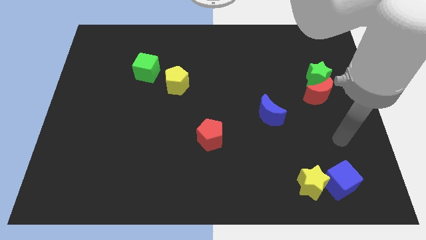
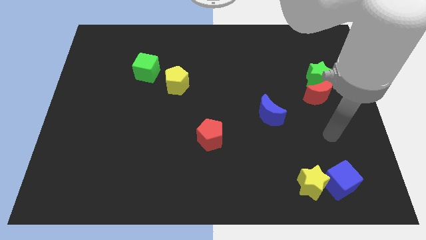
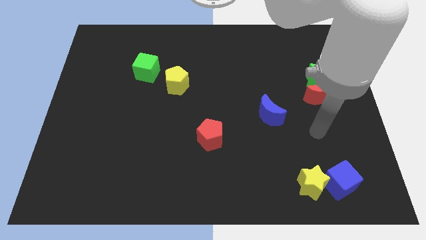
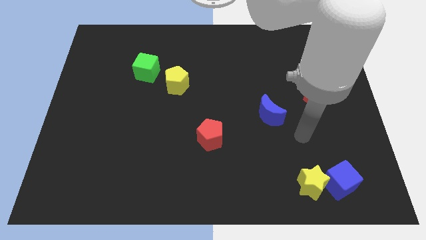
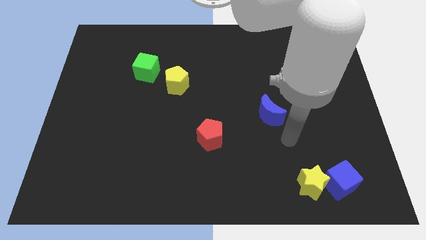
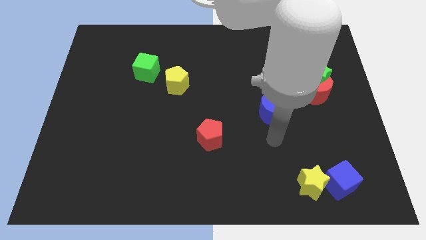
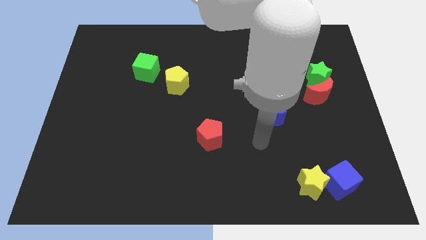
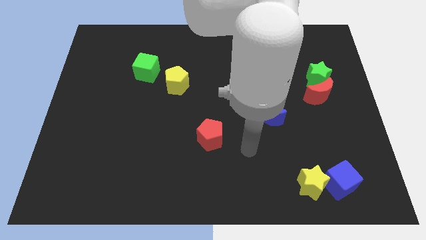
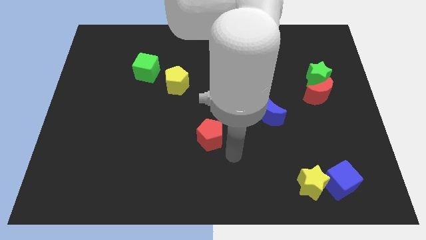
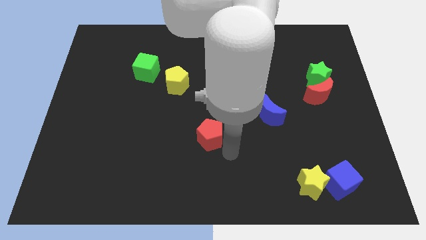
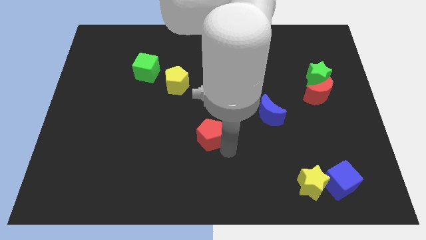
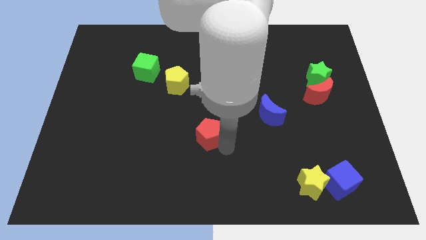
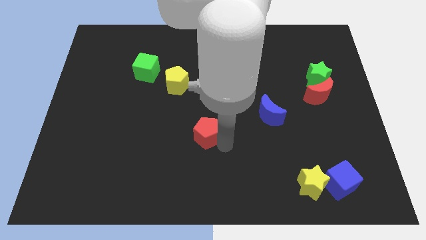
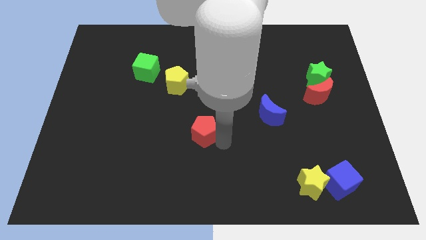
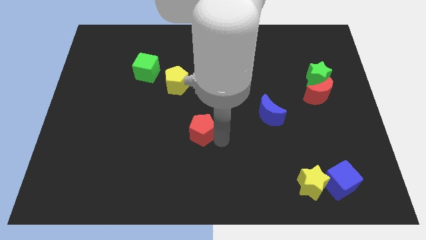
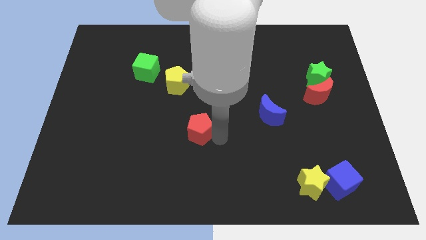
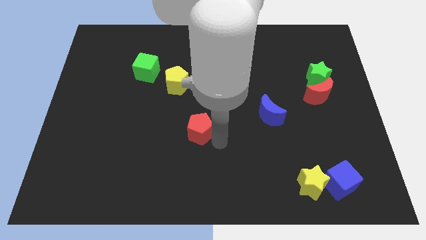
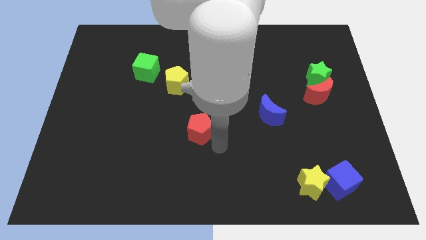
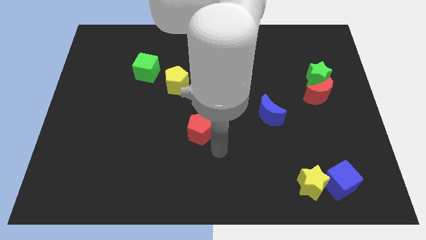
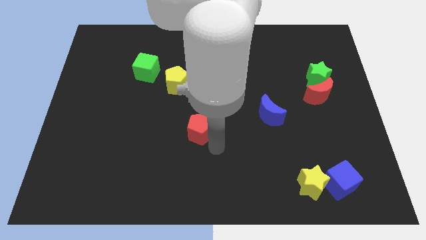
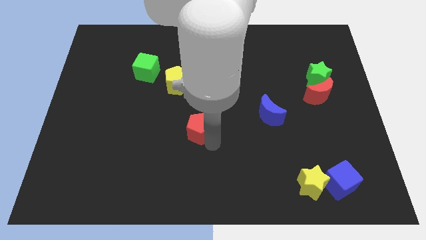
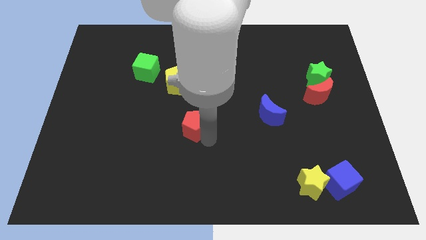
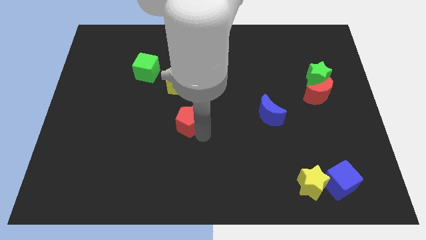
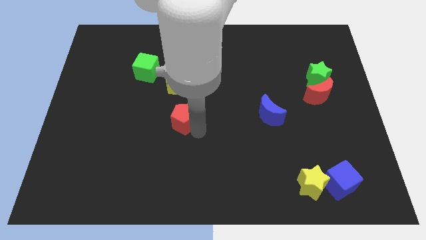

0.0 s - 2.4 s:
slide the red pentagon upwards and left a little

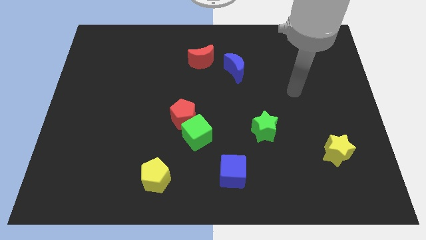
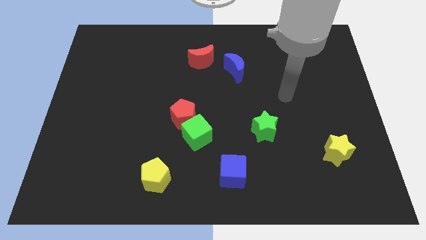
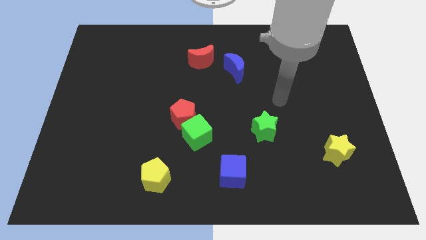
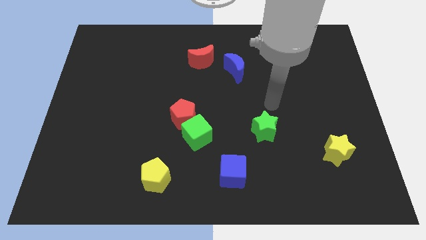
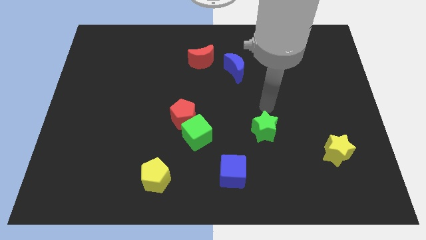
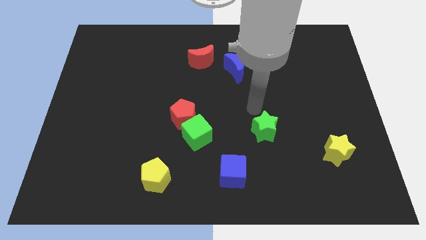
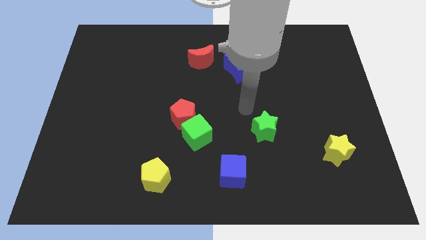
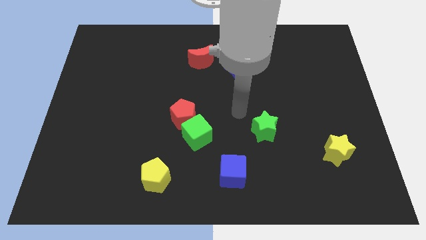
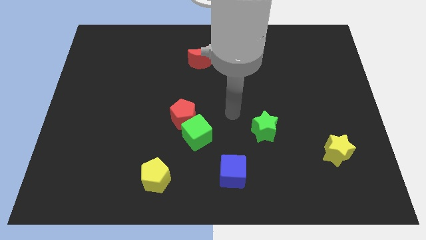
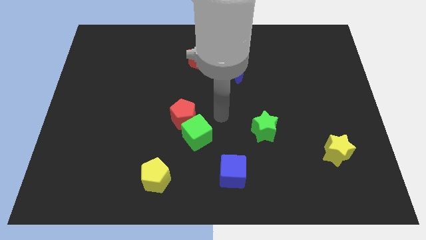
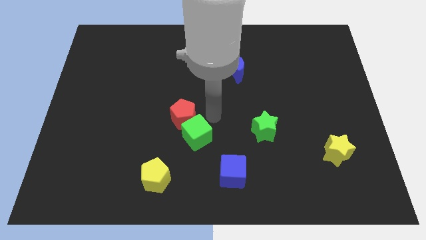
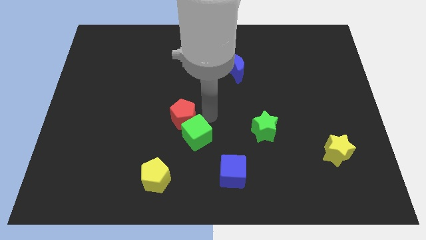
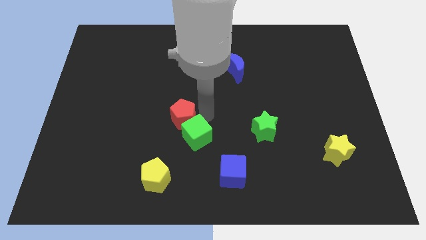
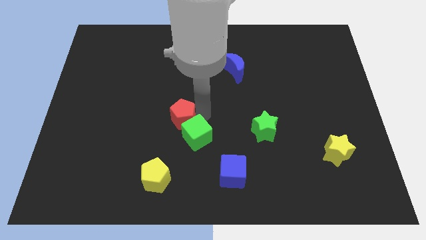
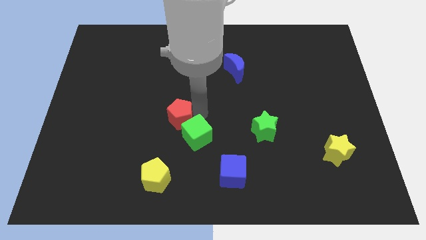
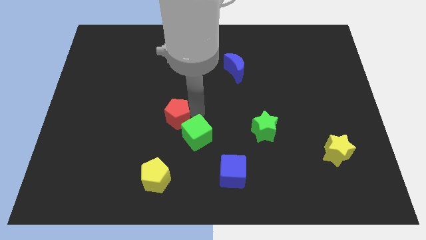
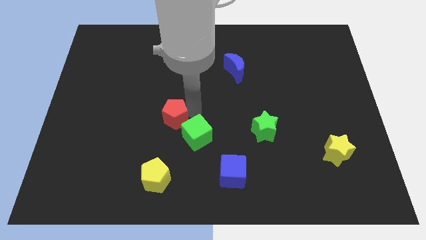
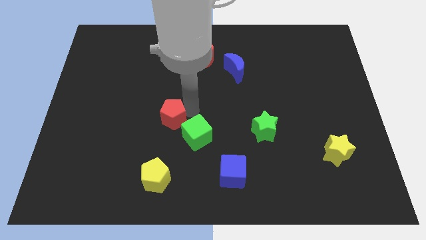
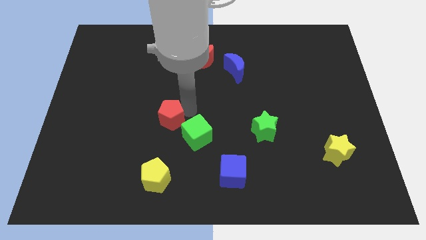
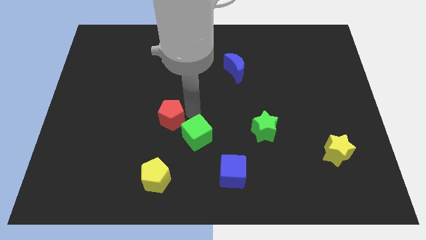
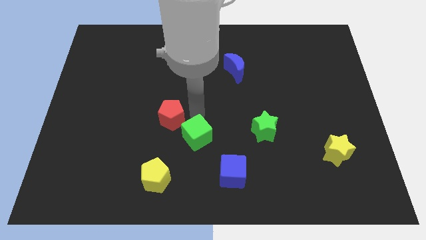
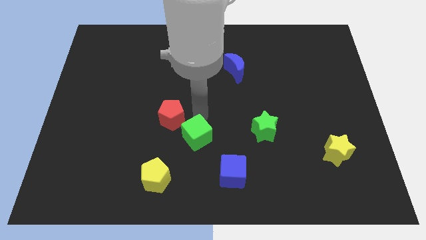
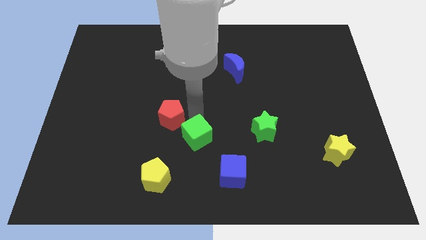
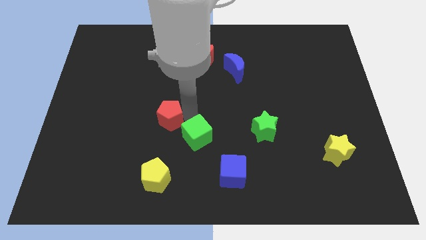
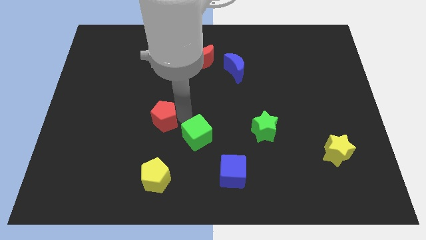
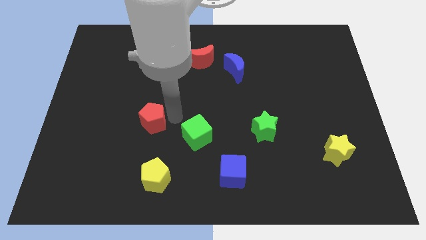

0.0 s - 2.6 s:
move the red pentagon to the left slightly

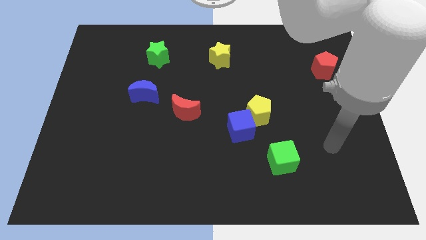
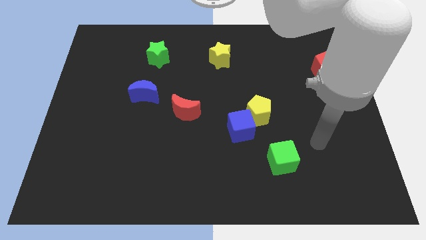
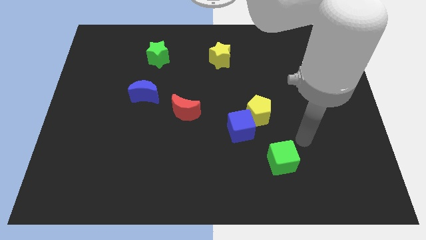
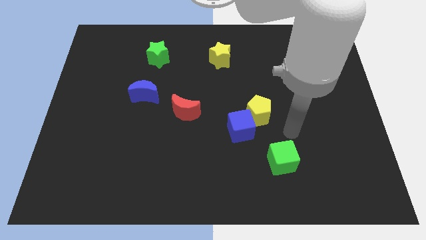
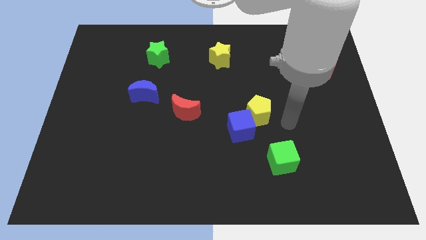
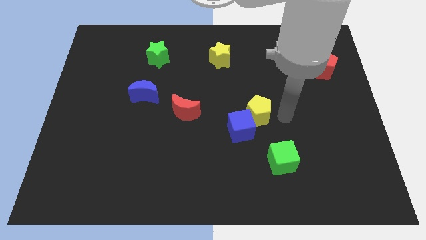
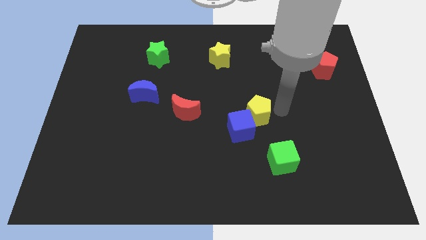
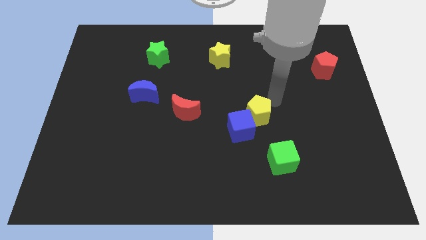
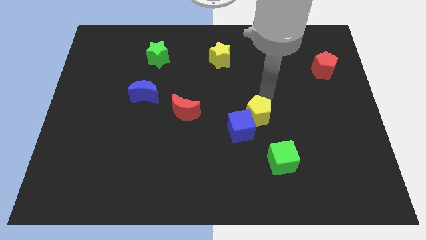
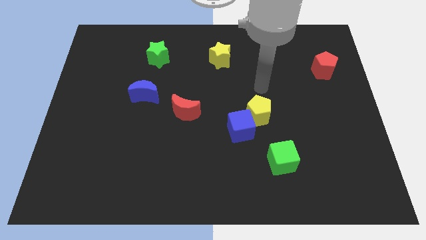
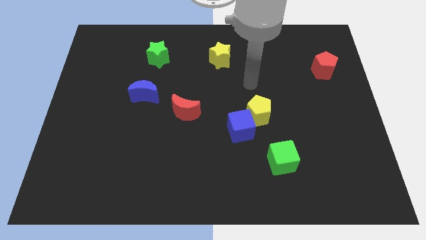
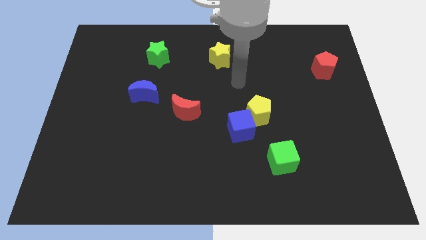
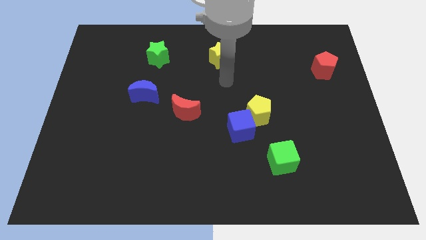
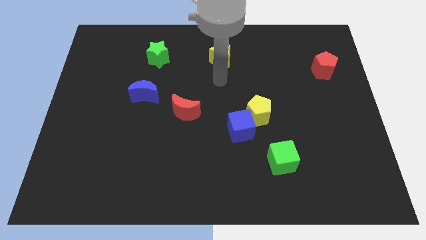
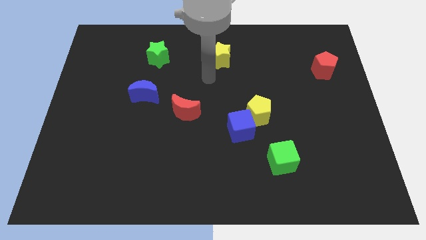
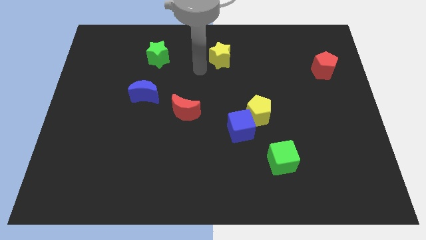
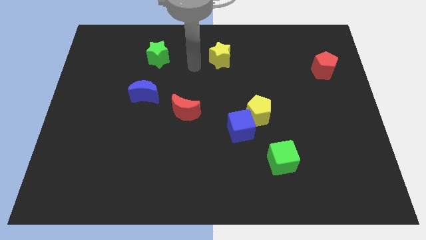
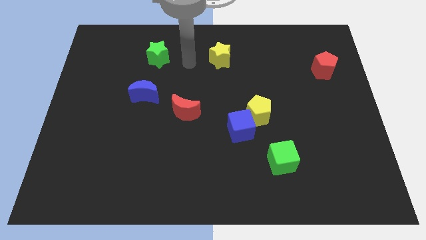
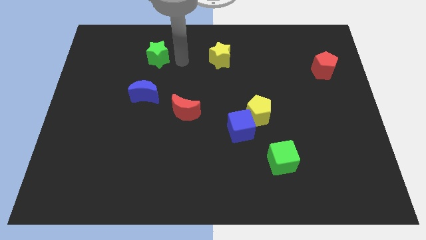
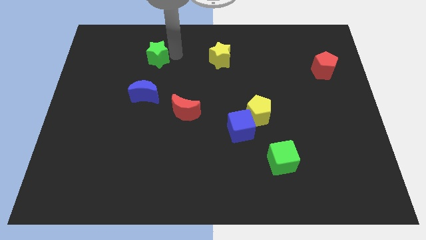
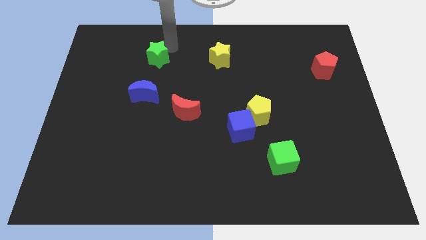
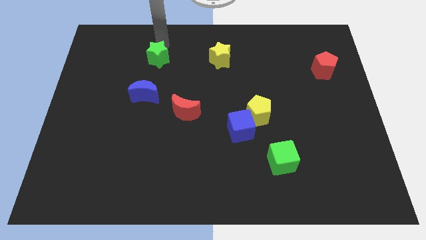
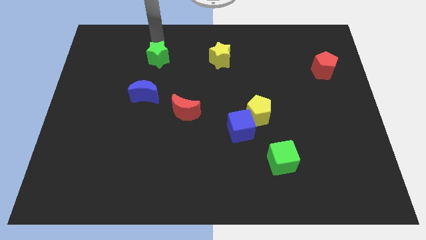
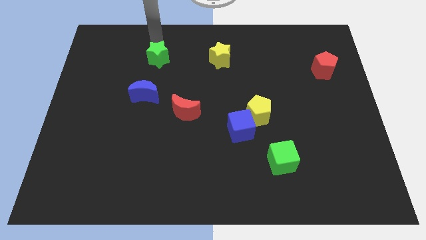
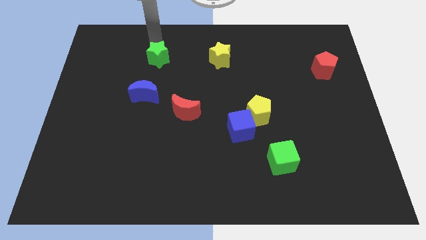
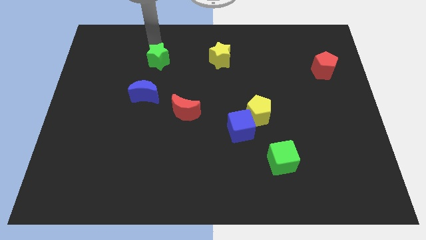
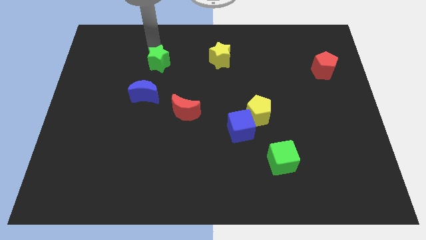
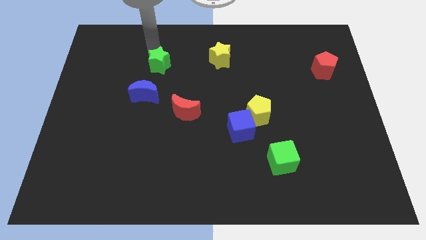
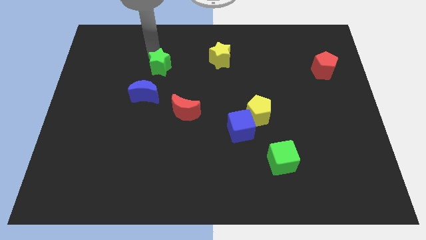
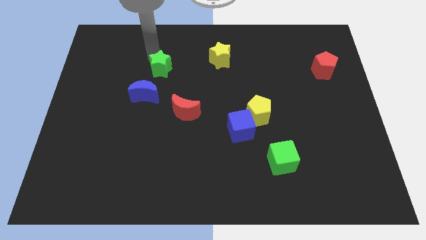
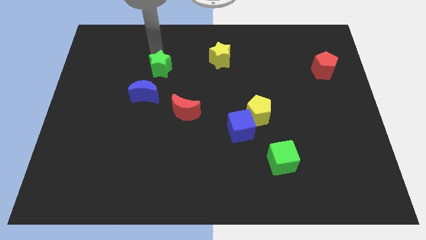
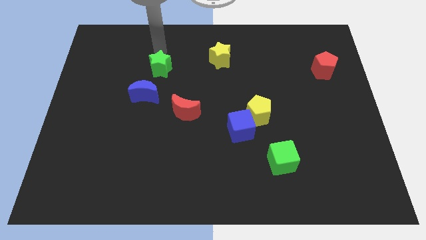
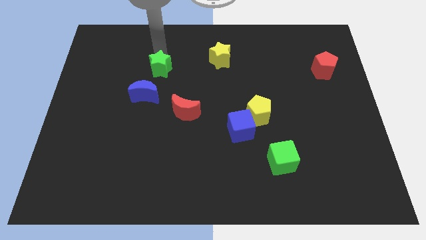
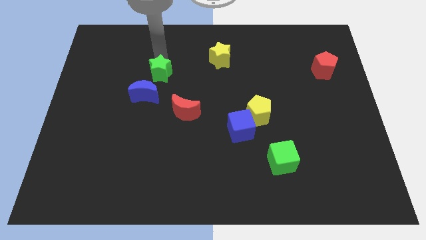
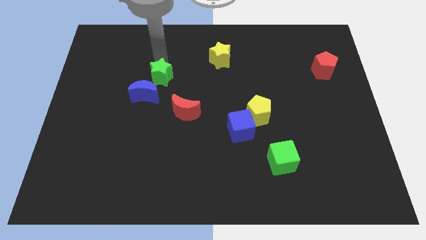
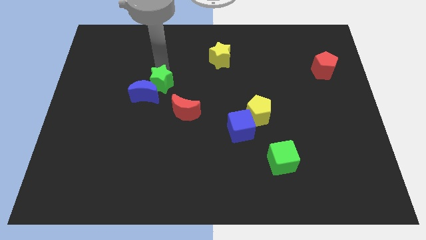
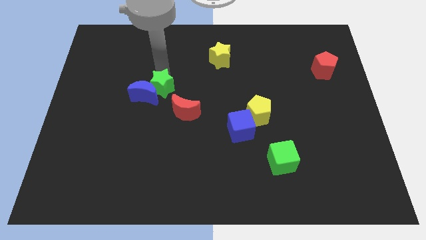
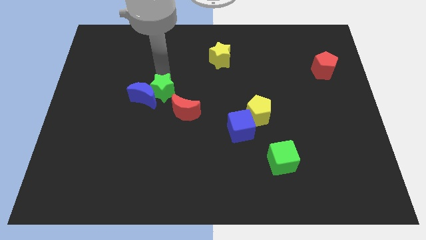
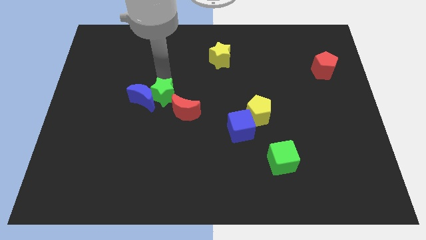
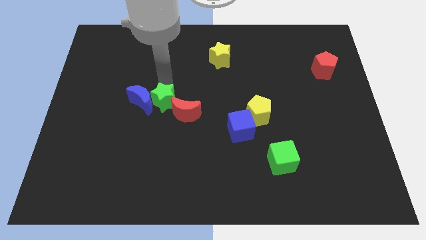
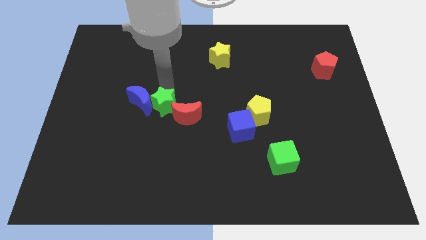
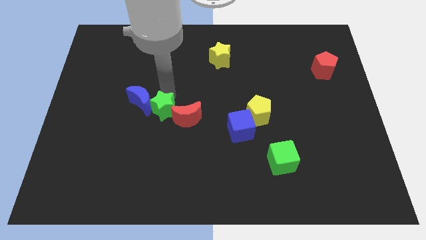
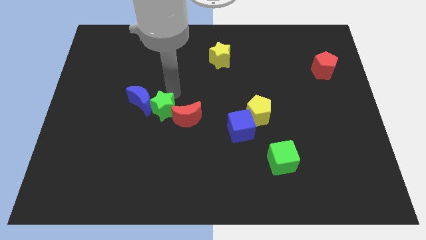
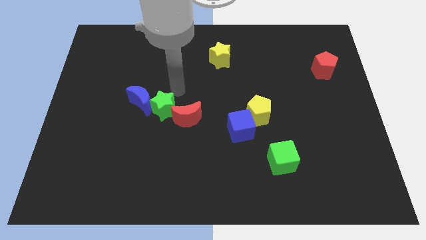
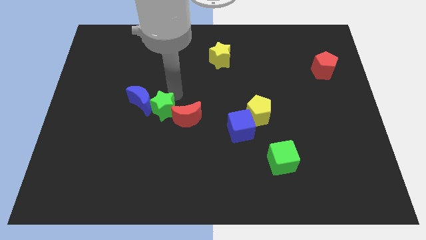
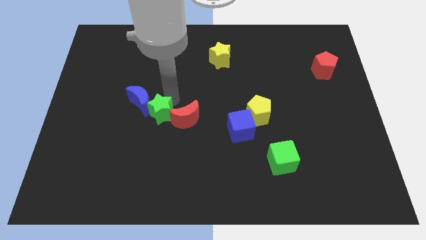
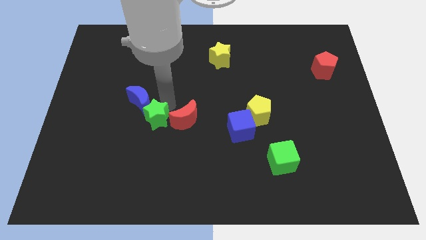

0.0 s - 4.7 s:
push the green star down
